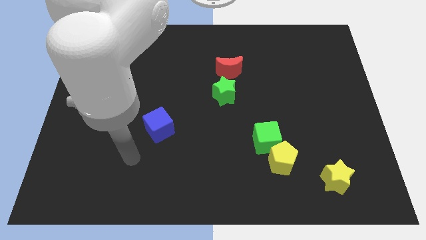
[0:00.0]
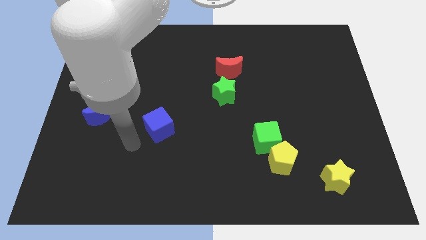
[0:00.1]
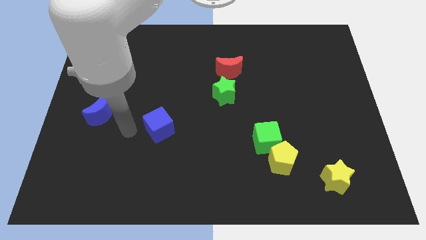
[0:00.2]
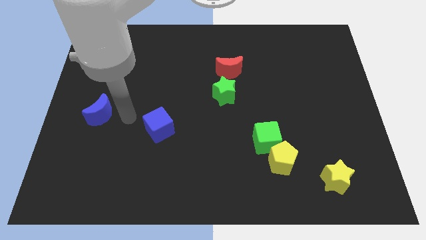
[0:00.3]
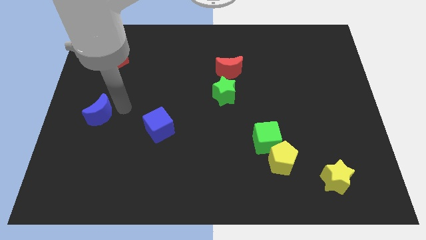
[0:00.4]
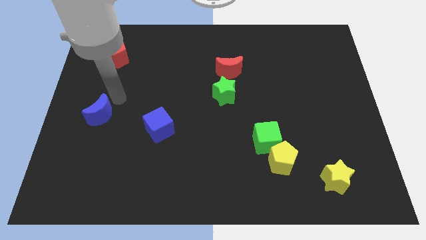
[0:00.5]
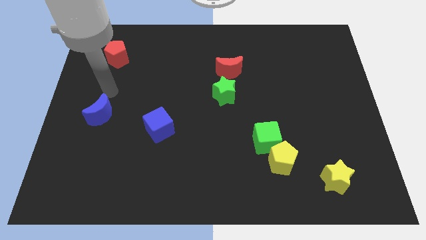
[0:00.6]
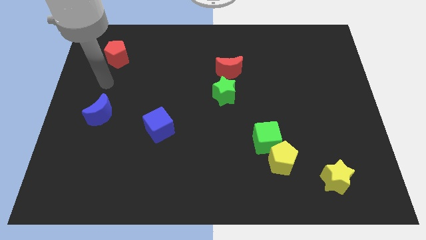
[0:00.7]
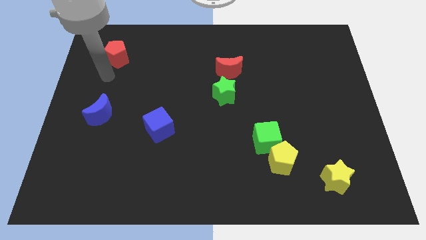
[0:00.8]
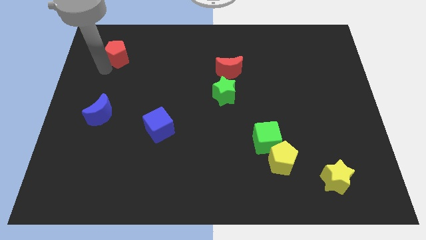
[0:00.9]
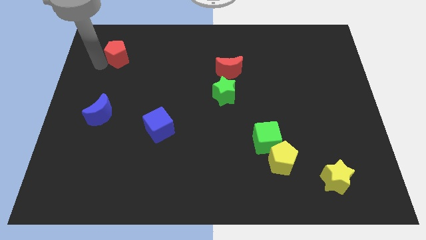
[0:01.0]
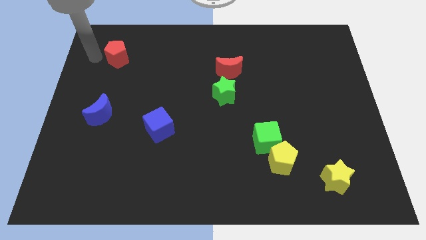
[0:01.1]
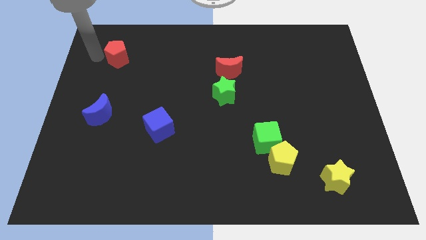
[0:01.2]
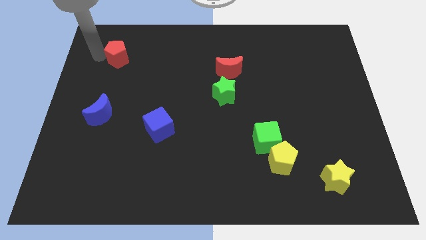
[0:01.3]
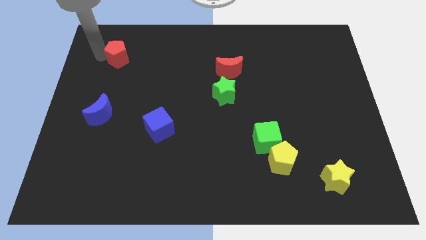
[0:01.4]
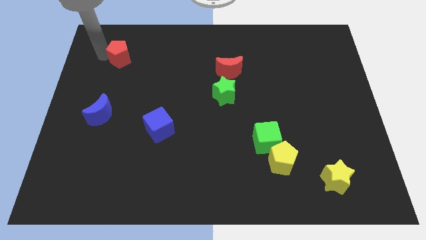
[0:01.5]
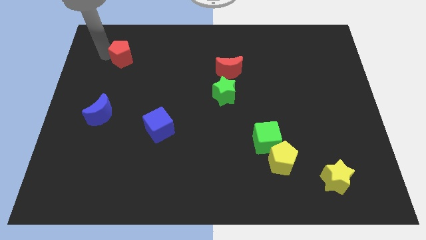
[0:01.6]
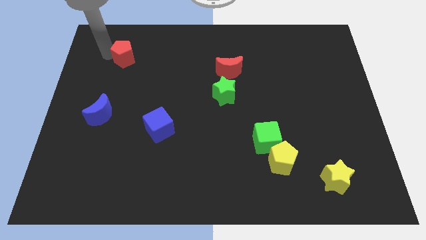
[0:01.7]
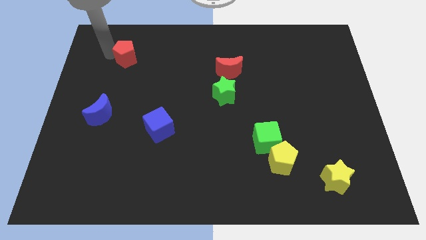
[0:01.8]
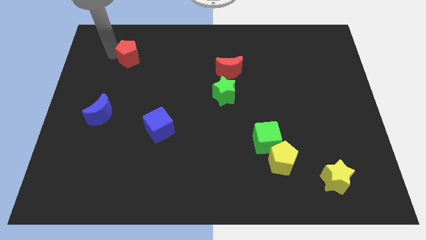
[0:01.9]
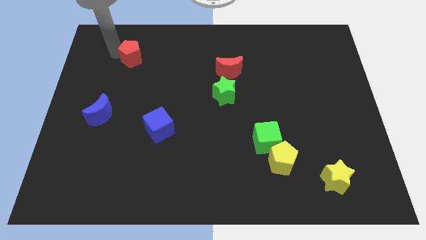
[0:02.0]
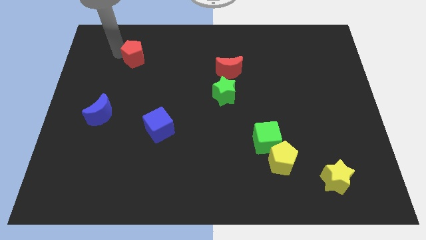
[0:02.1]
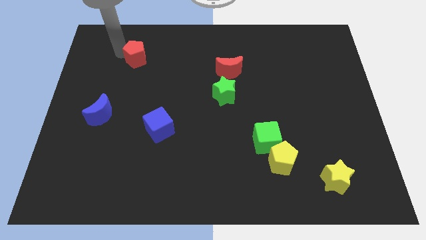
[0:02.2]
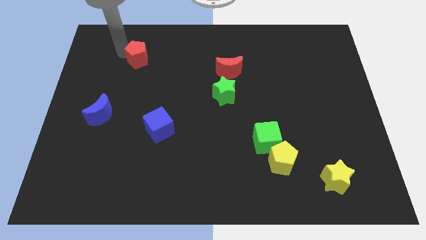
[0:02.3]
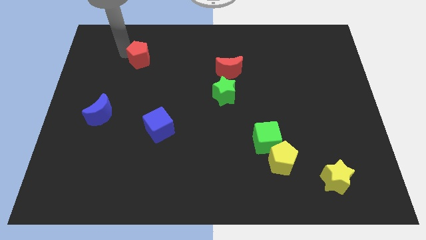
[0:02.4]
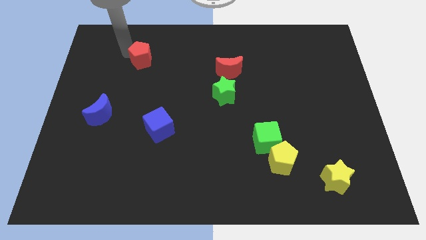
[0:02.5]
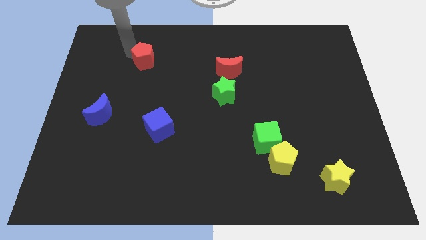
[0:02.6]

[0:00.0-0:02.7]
push the red pentagon right a bit

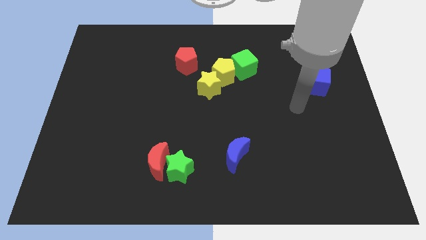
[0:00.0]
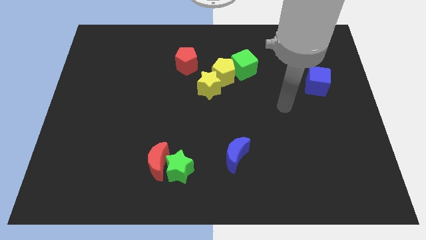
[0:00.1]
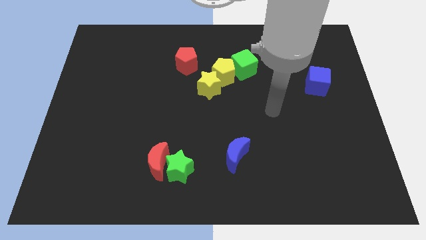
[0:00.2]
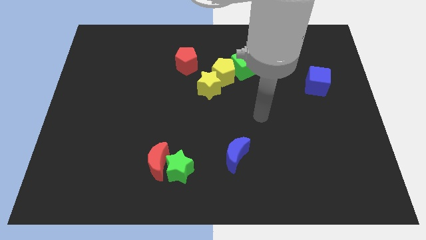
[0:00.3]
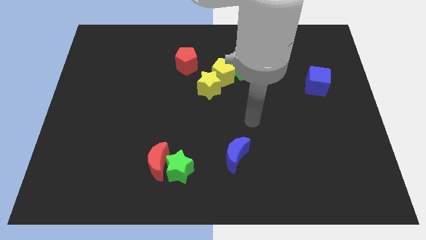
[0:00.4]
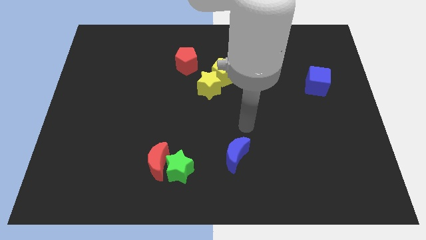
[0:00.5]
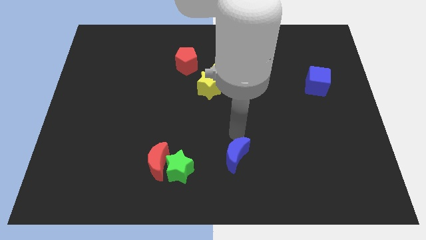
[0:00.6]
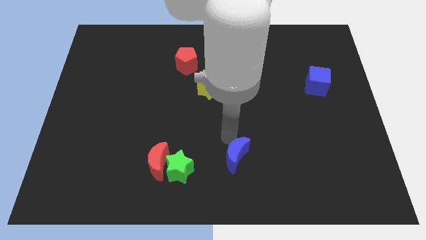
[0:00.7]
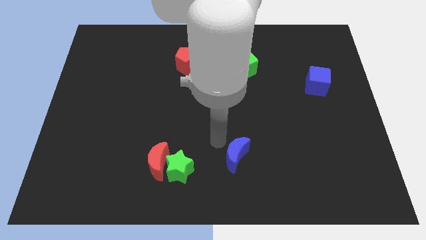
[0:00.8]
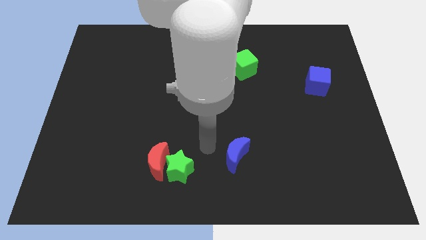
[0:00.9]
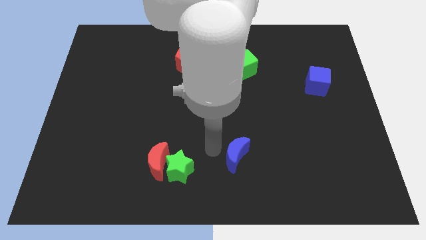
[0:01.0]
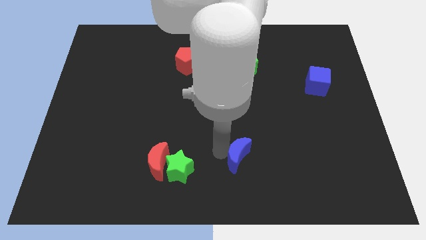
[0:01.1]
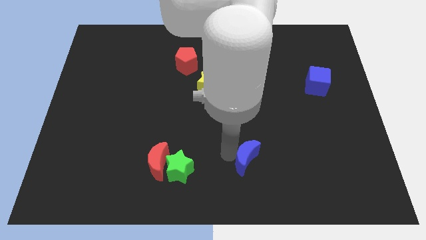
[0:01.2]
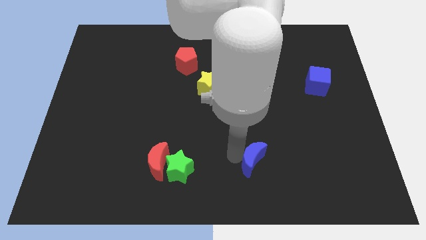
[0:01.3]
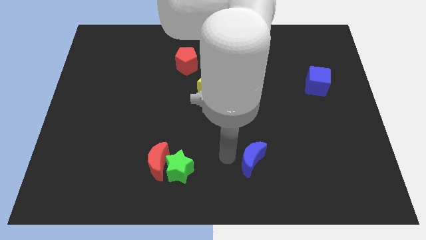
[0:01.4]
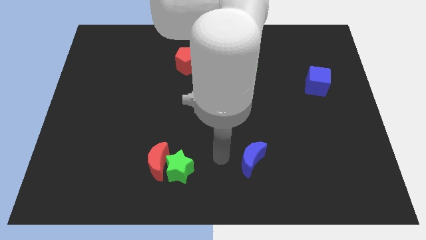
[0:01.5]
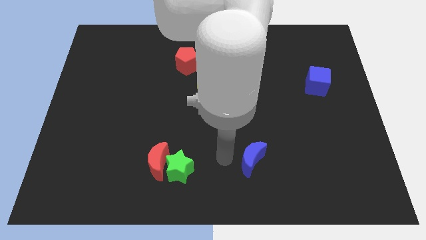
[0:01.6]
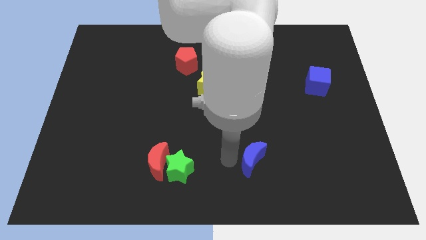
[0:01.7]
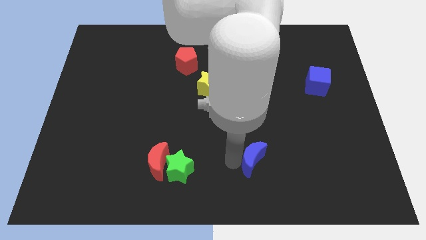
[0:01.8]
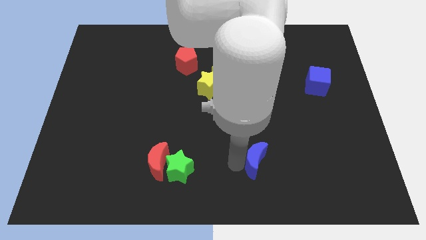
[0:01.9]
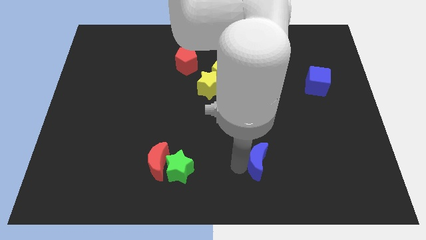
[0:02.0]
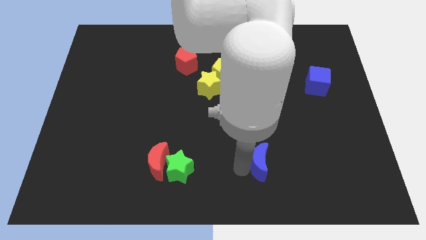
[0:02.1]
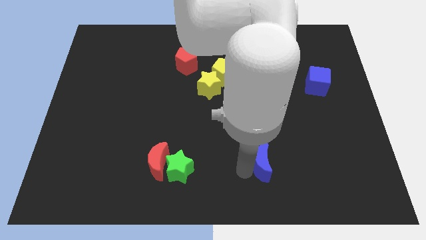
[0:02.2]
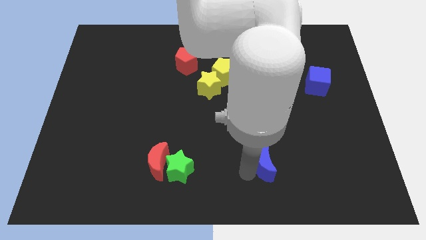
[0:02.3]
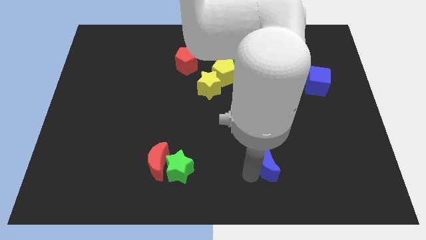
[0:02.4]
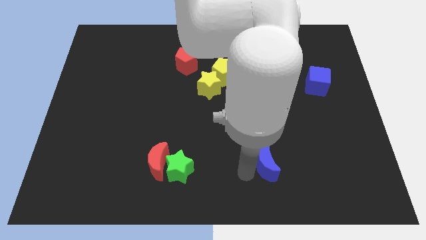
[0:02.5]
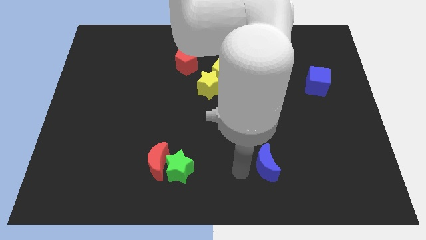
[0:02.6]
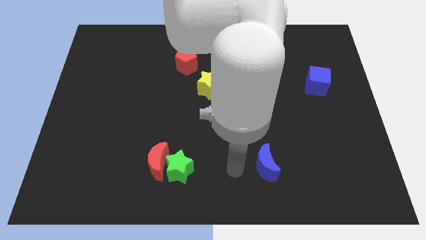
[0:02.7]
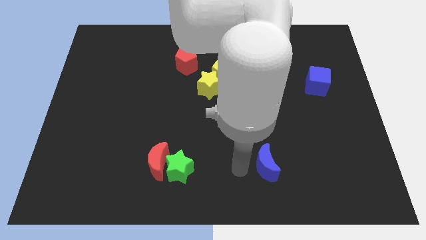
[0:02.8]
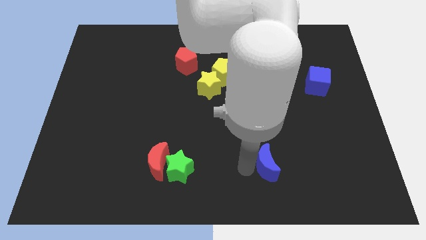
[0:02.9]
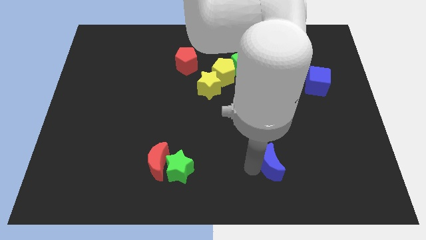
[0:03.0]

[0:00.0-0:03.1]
slide the blue moon a little bit right

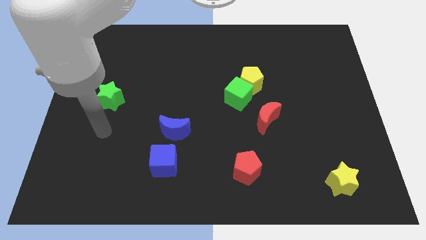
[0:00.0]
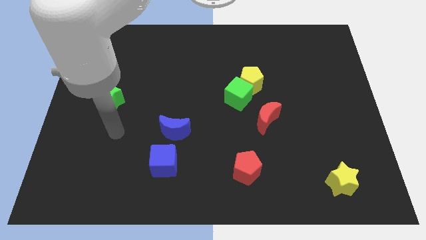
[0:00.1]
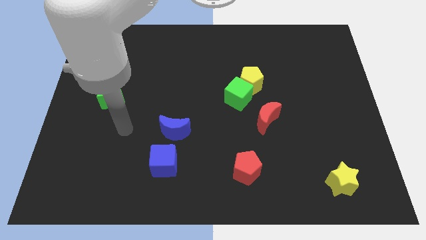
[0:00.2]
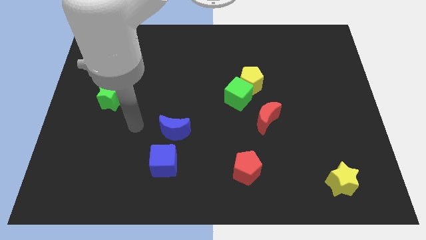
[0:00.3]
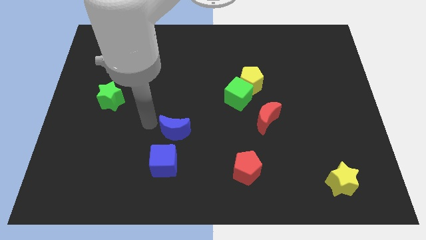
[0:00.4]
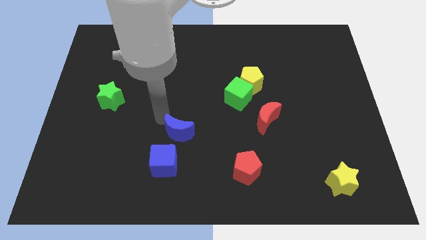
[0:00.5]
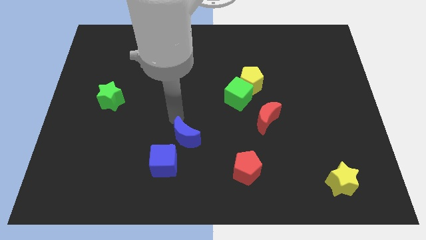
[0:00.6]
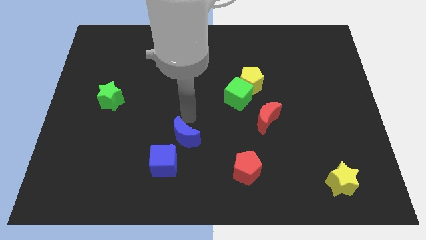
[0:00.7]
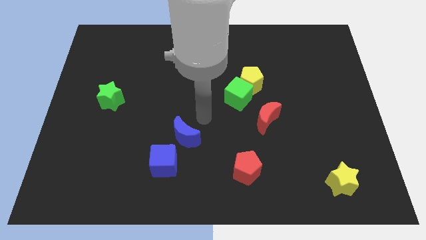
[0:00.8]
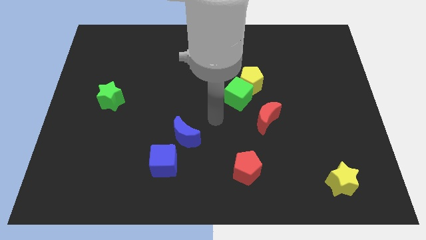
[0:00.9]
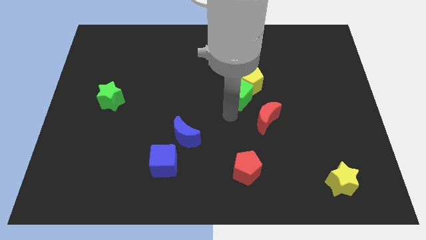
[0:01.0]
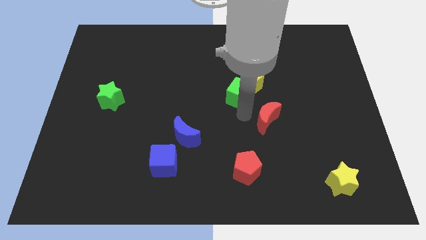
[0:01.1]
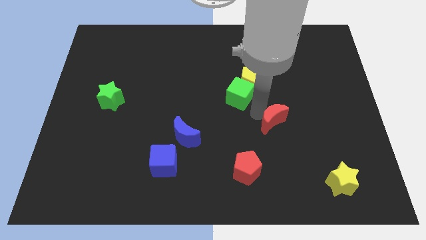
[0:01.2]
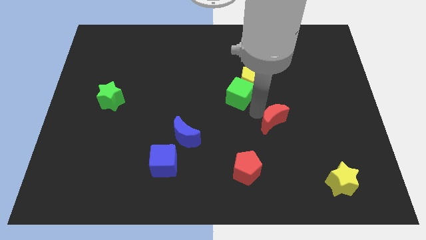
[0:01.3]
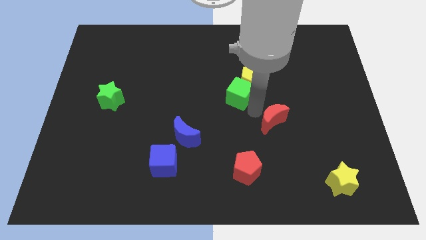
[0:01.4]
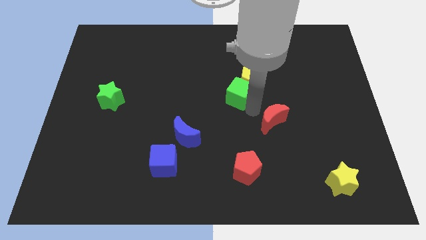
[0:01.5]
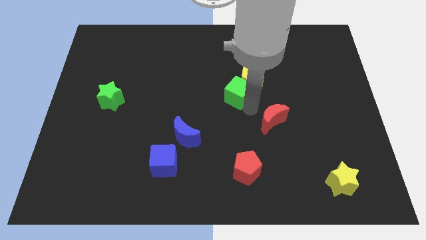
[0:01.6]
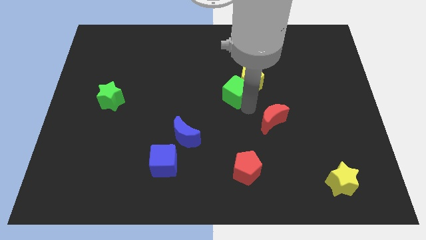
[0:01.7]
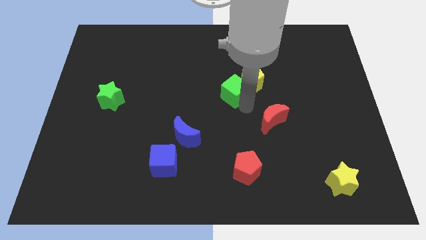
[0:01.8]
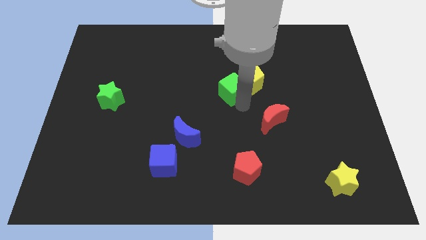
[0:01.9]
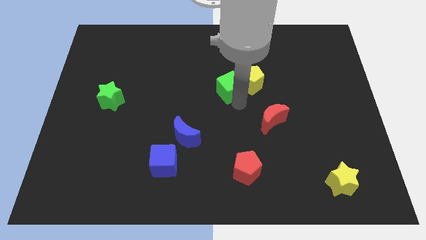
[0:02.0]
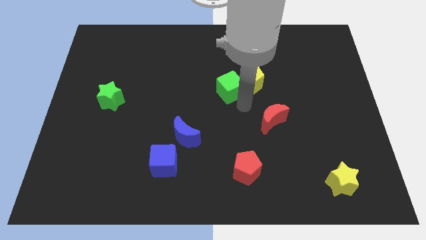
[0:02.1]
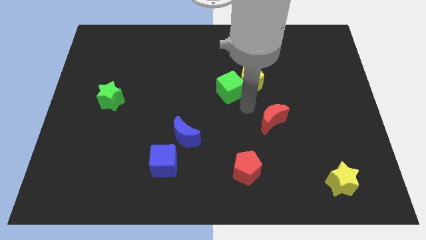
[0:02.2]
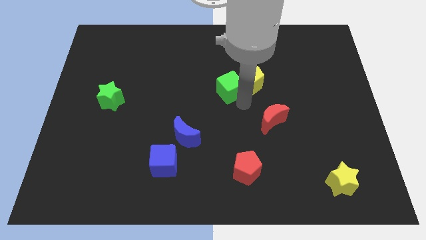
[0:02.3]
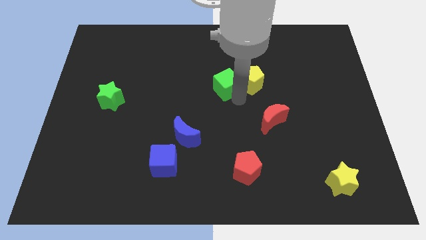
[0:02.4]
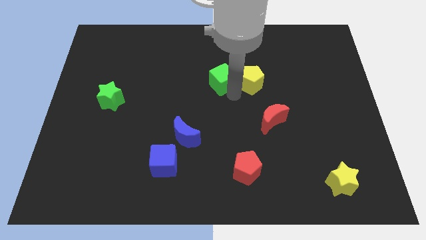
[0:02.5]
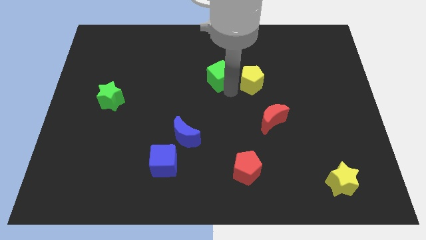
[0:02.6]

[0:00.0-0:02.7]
slightly slide the green cube up and left
